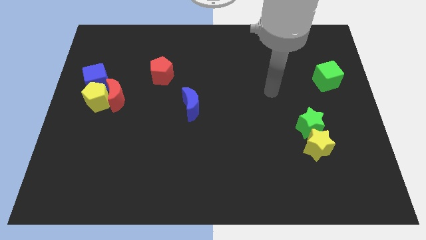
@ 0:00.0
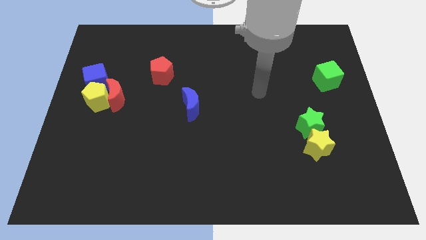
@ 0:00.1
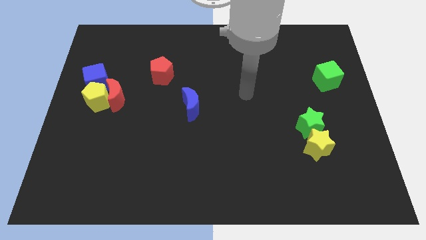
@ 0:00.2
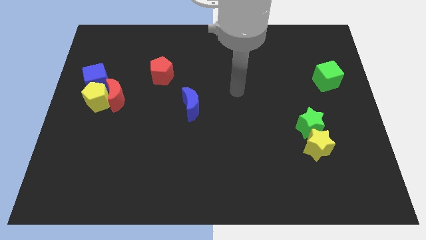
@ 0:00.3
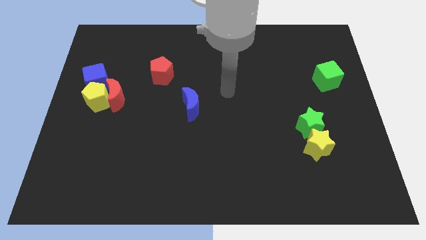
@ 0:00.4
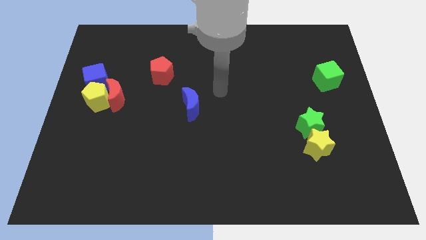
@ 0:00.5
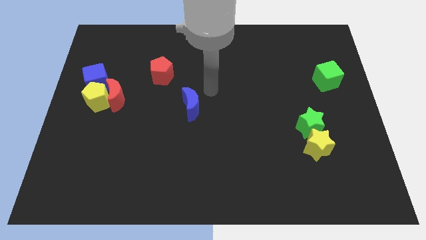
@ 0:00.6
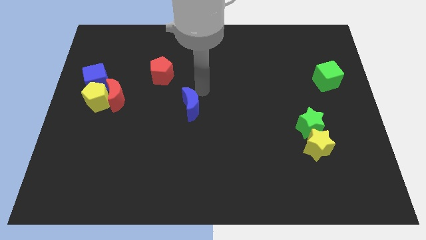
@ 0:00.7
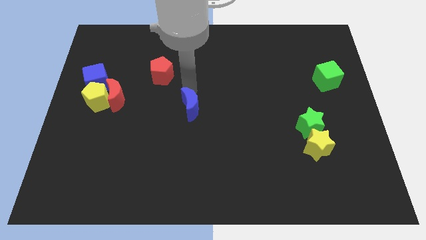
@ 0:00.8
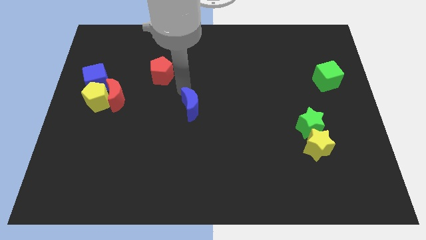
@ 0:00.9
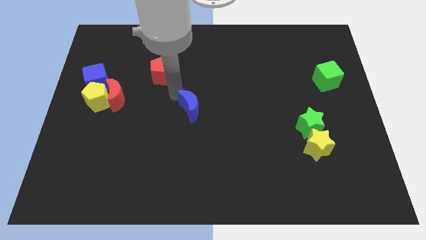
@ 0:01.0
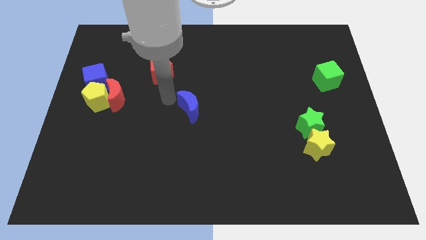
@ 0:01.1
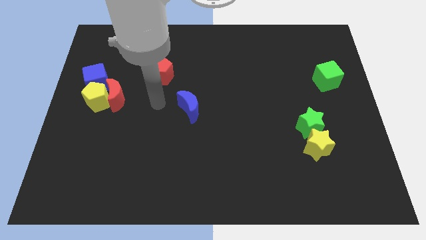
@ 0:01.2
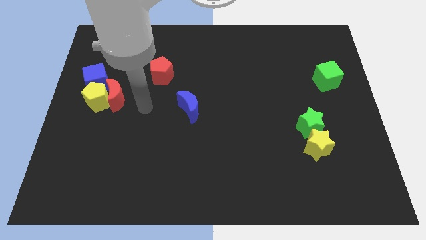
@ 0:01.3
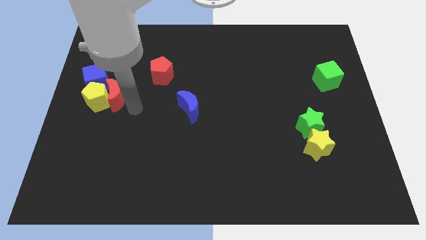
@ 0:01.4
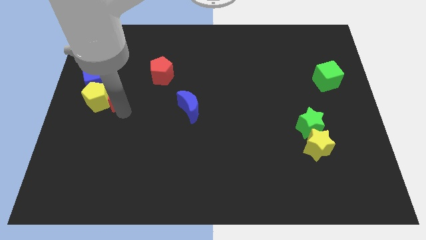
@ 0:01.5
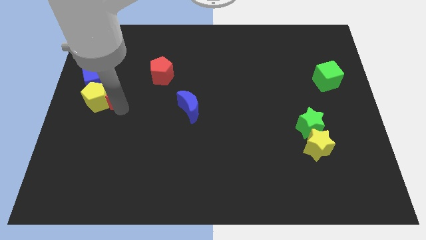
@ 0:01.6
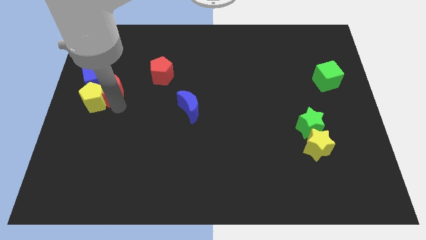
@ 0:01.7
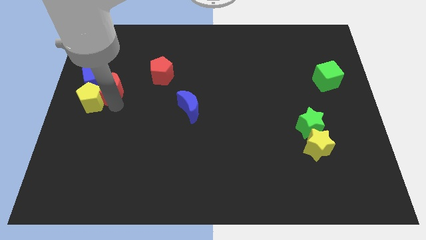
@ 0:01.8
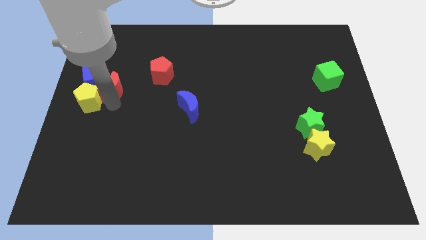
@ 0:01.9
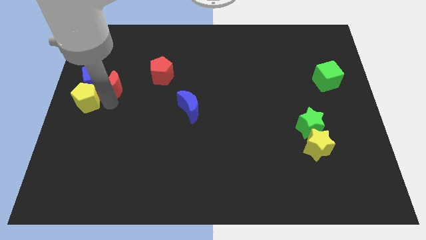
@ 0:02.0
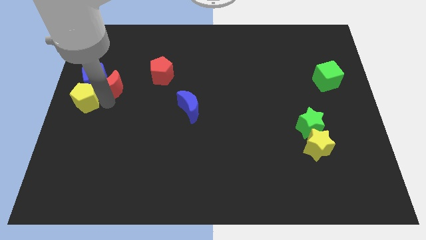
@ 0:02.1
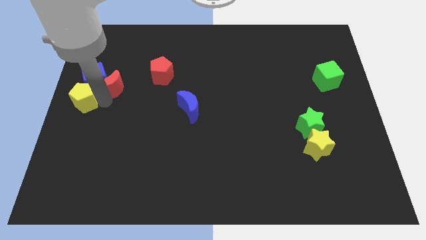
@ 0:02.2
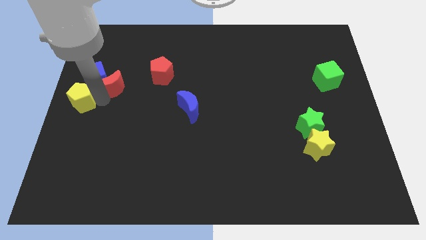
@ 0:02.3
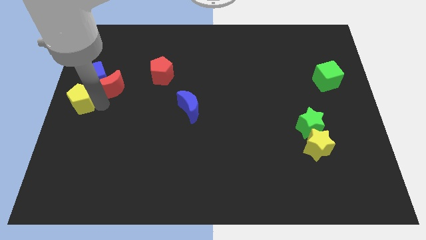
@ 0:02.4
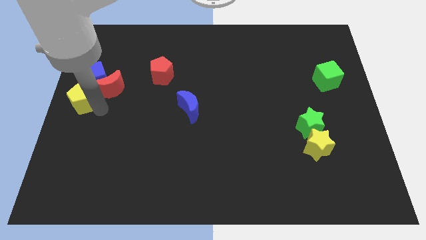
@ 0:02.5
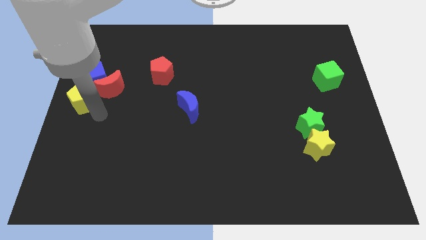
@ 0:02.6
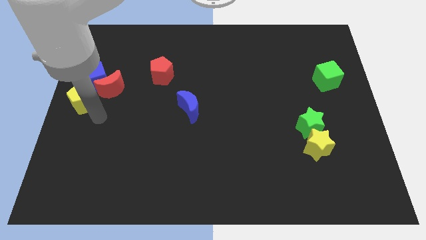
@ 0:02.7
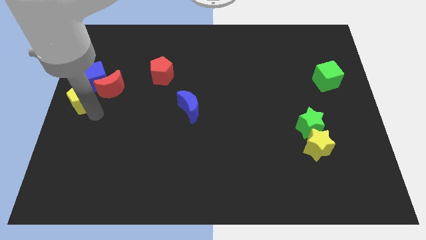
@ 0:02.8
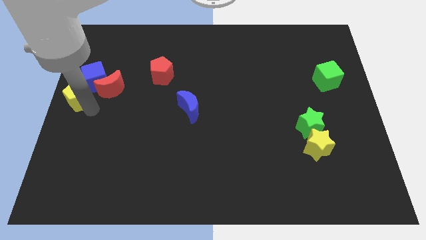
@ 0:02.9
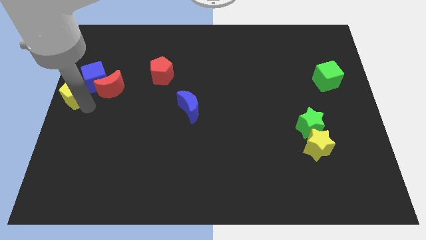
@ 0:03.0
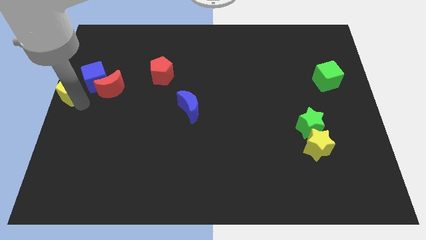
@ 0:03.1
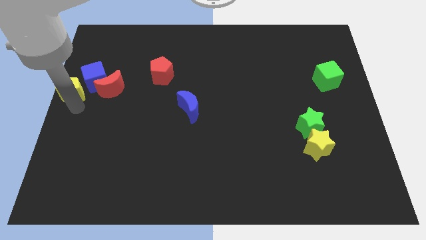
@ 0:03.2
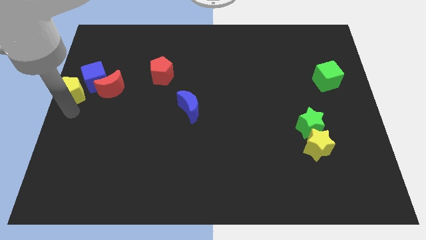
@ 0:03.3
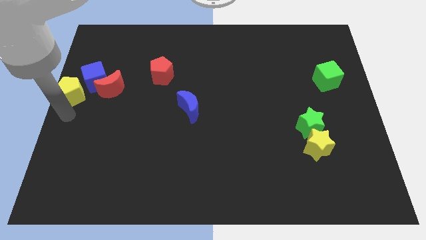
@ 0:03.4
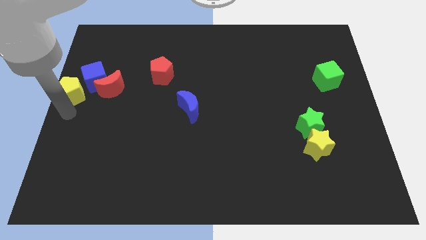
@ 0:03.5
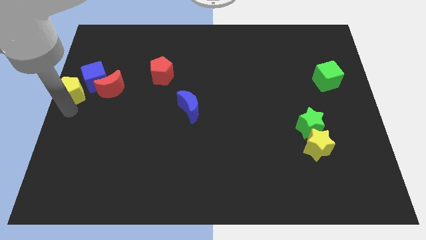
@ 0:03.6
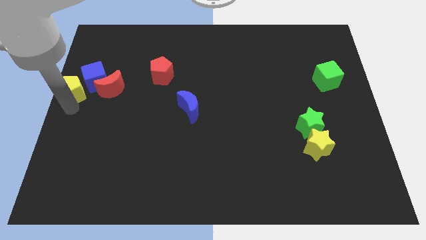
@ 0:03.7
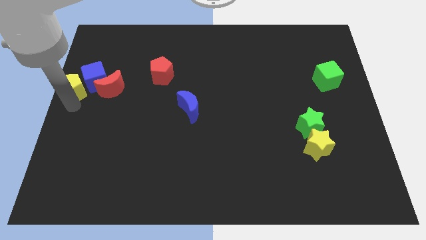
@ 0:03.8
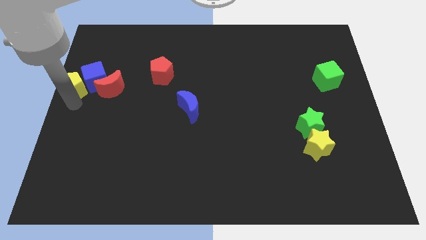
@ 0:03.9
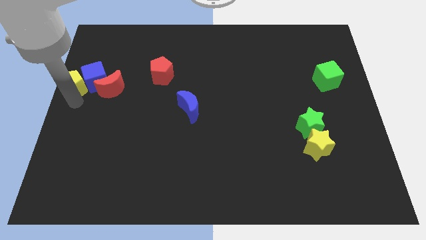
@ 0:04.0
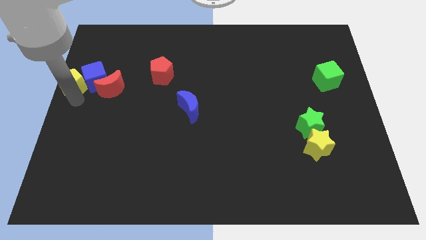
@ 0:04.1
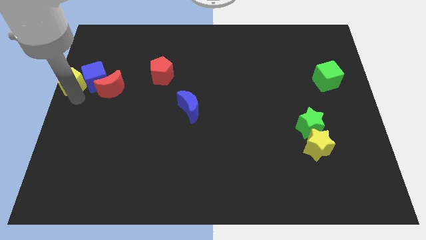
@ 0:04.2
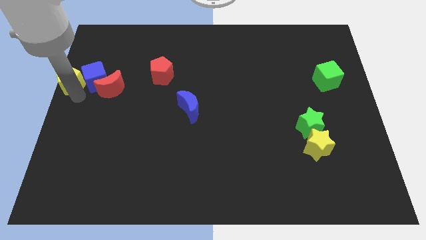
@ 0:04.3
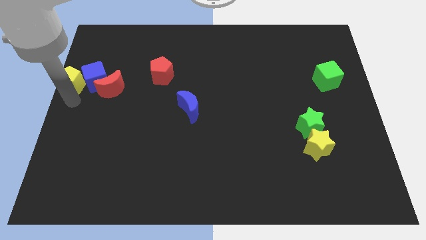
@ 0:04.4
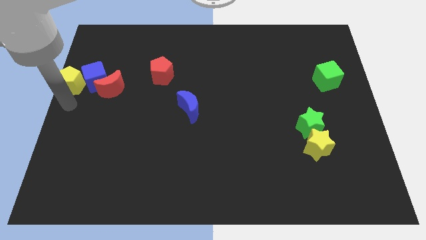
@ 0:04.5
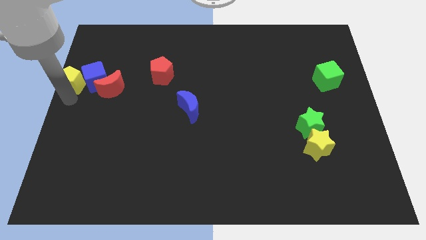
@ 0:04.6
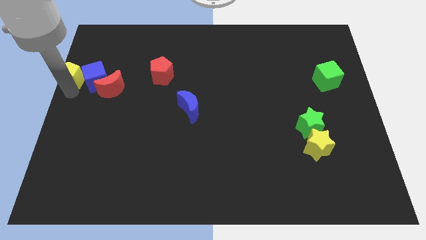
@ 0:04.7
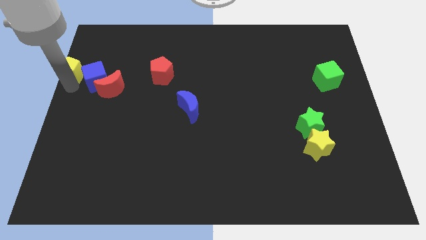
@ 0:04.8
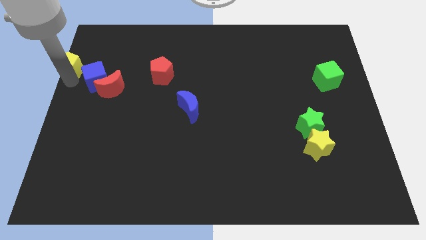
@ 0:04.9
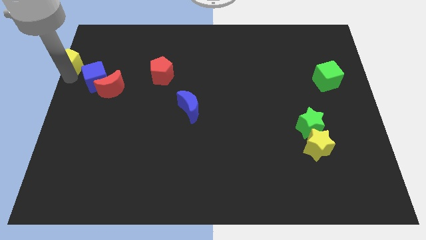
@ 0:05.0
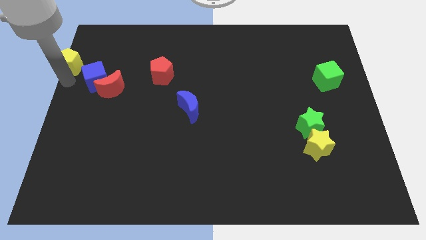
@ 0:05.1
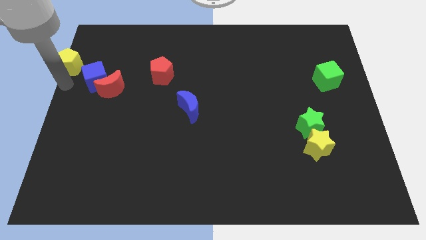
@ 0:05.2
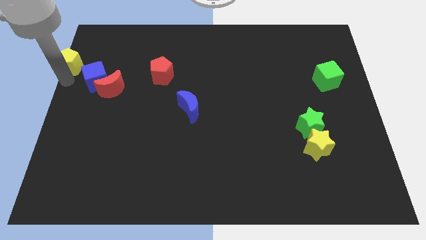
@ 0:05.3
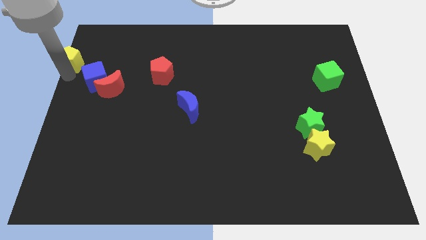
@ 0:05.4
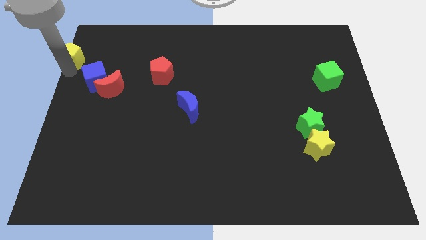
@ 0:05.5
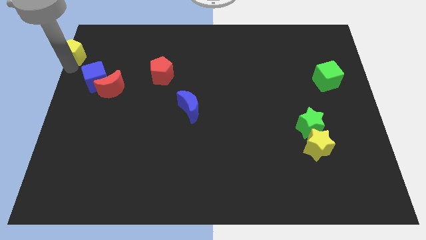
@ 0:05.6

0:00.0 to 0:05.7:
slide the yellow pentagon to the top left

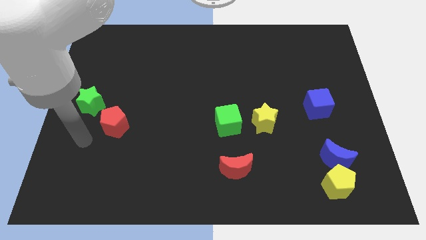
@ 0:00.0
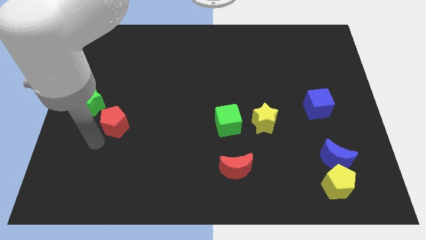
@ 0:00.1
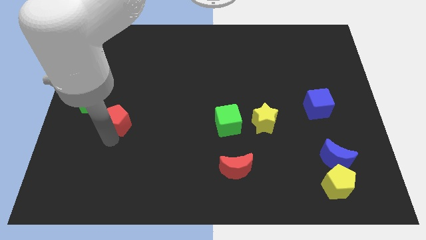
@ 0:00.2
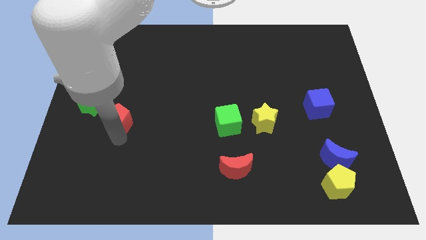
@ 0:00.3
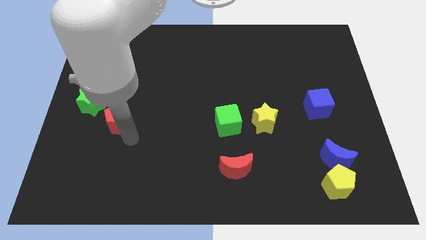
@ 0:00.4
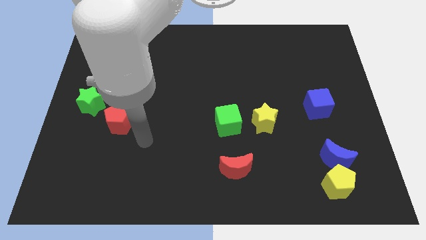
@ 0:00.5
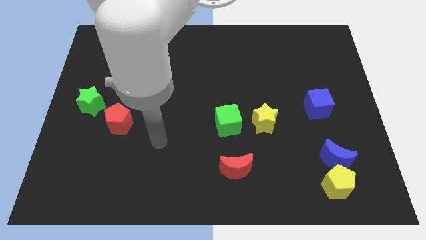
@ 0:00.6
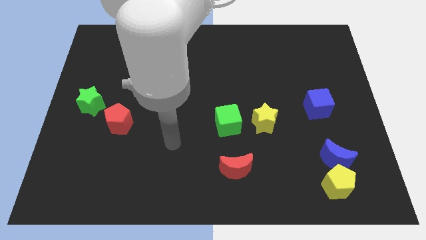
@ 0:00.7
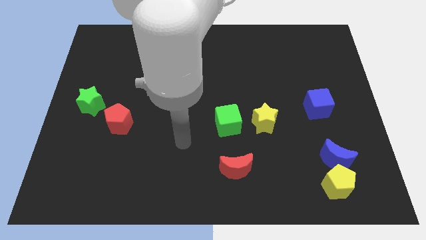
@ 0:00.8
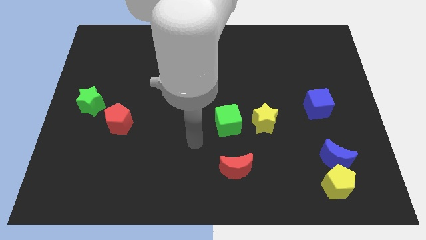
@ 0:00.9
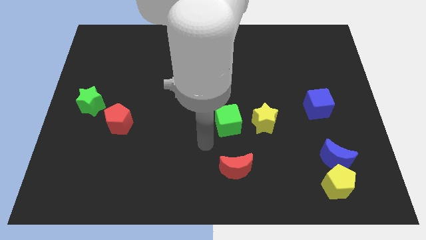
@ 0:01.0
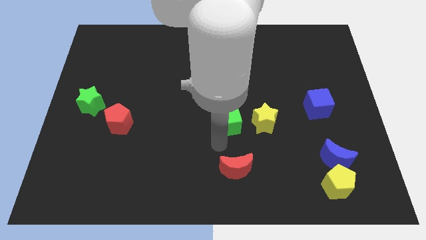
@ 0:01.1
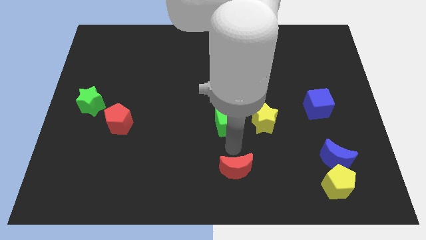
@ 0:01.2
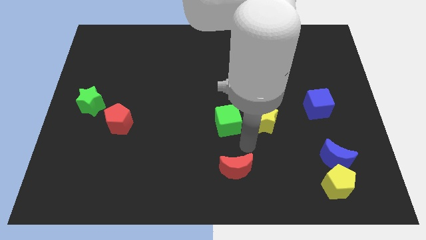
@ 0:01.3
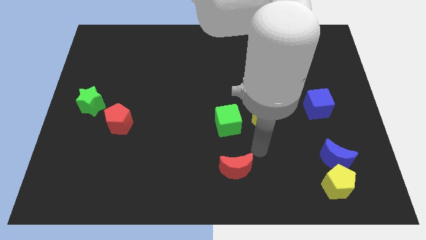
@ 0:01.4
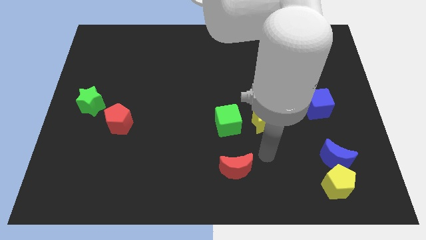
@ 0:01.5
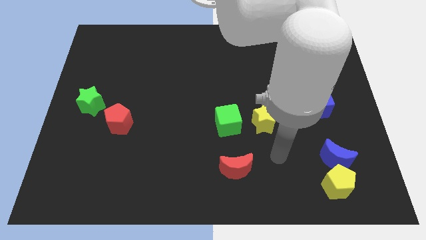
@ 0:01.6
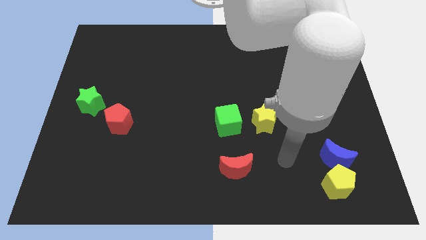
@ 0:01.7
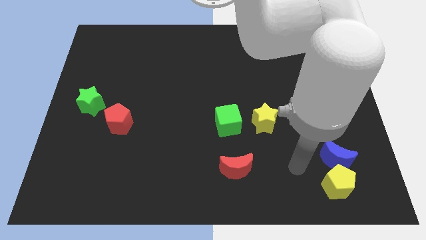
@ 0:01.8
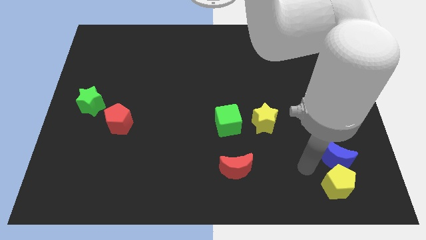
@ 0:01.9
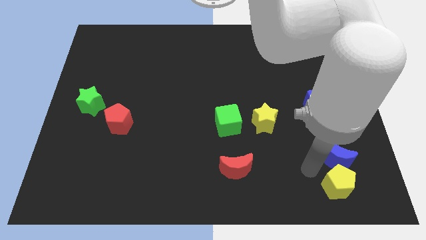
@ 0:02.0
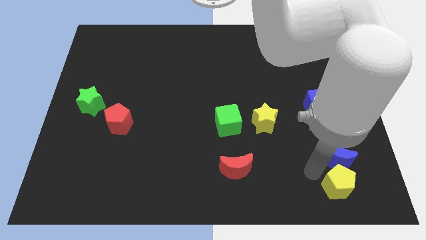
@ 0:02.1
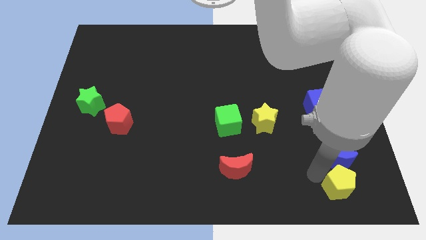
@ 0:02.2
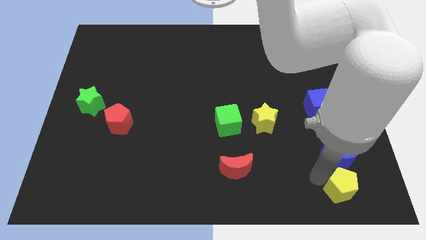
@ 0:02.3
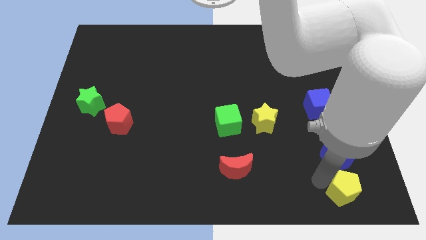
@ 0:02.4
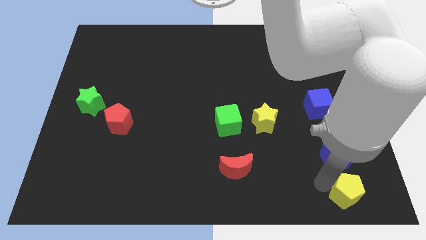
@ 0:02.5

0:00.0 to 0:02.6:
slide the yellow pentagon to the bottom right of the board
